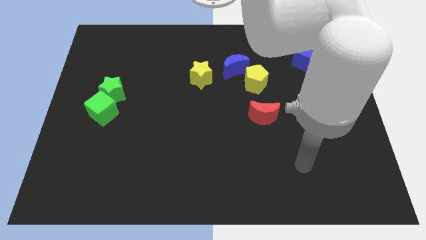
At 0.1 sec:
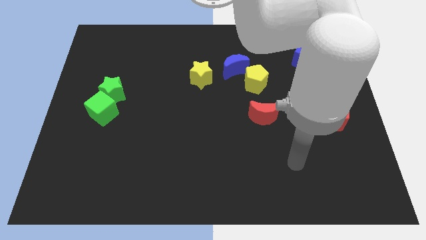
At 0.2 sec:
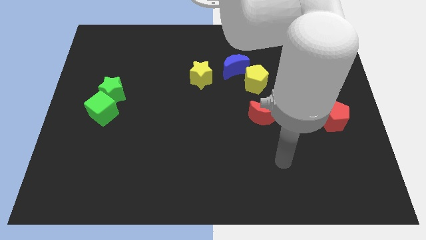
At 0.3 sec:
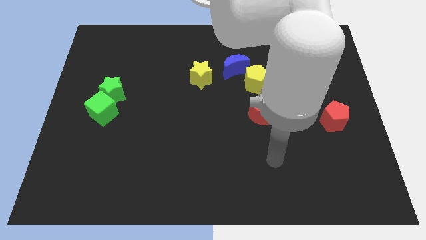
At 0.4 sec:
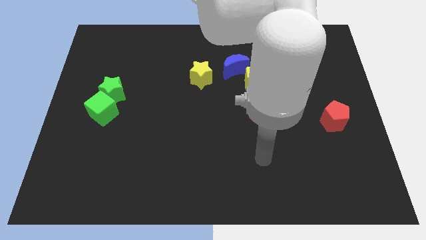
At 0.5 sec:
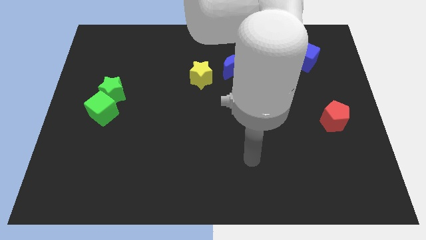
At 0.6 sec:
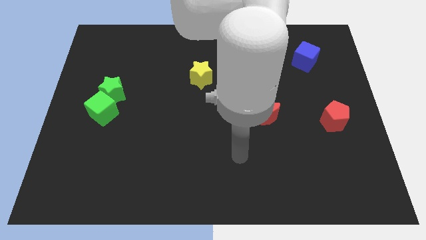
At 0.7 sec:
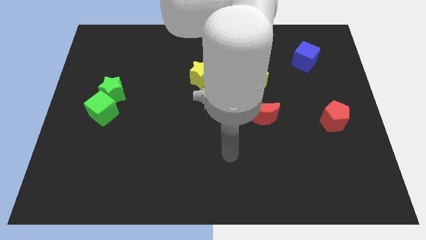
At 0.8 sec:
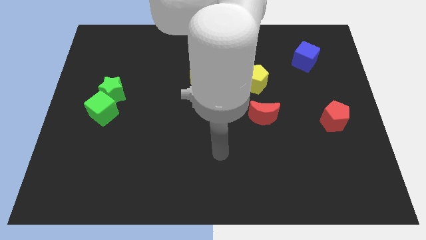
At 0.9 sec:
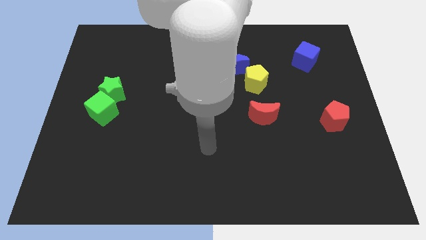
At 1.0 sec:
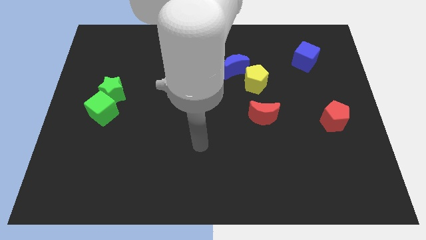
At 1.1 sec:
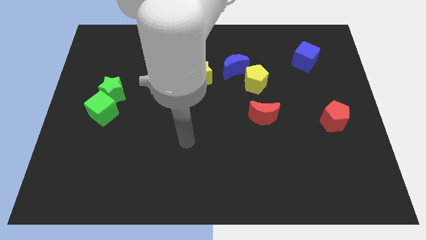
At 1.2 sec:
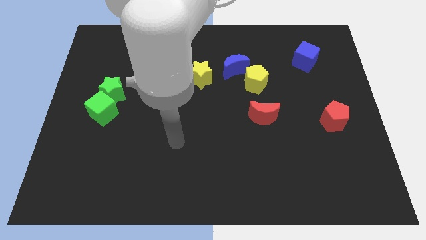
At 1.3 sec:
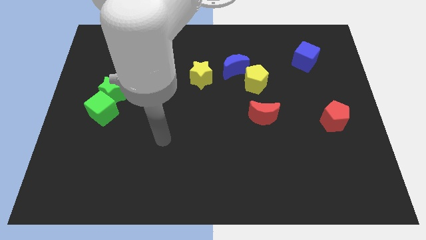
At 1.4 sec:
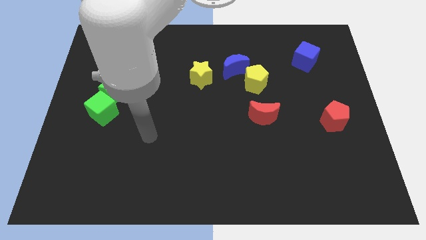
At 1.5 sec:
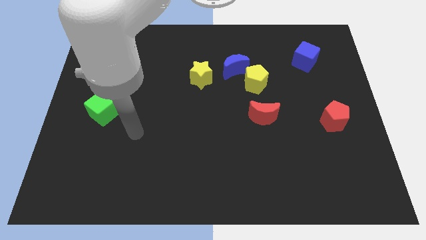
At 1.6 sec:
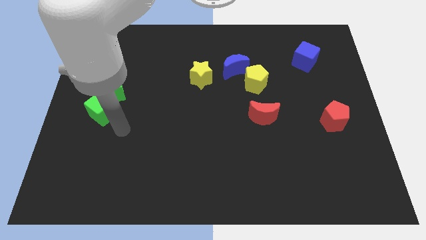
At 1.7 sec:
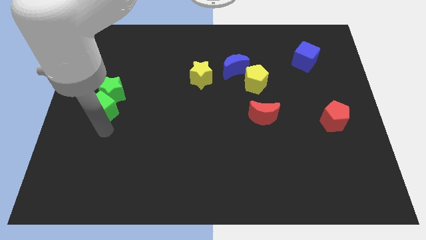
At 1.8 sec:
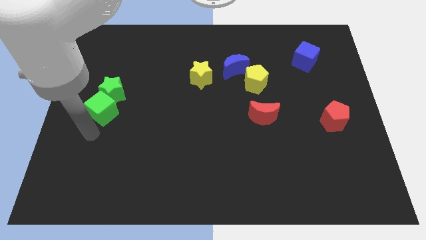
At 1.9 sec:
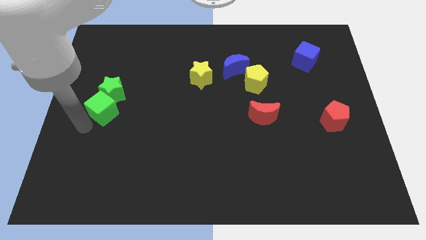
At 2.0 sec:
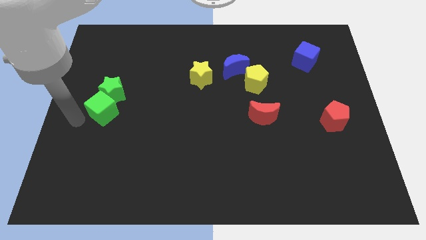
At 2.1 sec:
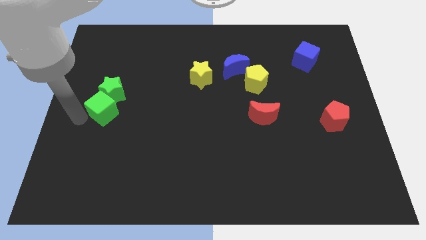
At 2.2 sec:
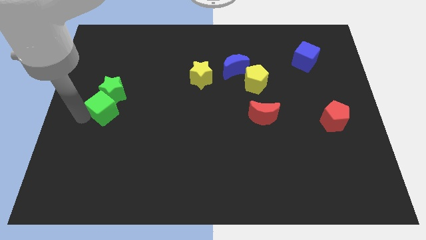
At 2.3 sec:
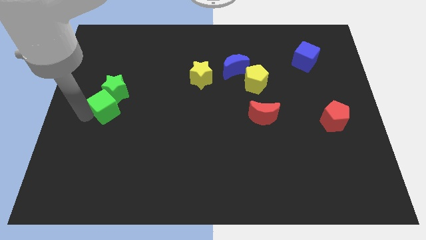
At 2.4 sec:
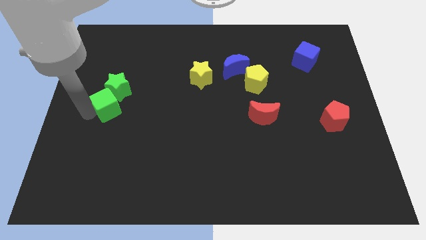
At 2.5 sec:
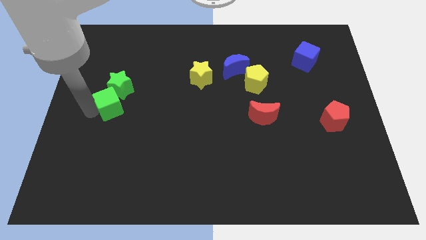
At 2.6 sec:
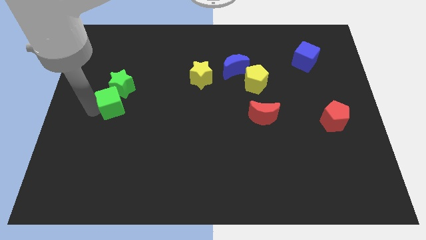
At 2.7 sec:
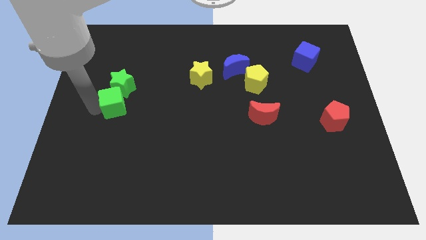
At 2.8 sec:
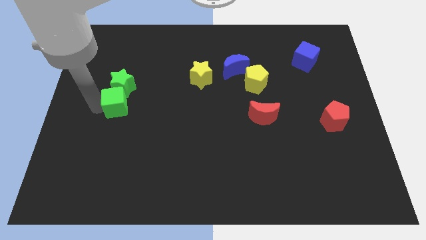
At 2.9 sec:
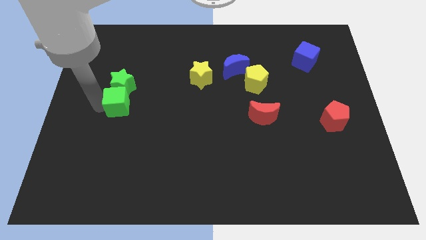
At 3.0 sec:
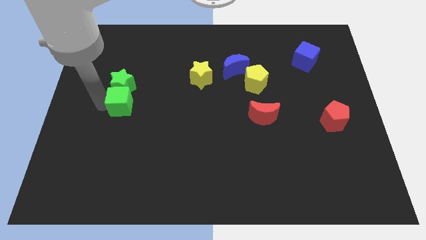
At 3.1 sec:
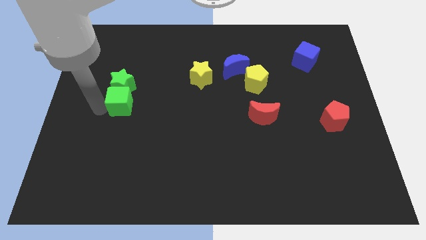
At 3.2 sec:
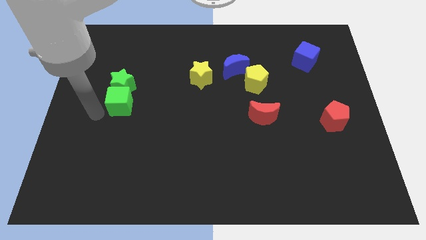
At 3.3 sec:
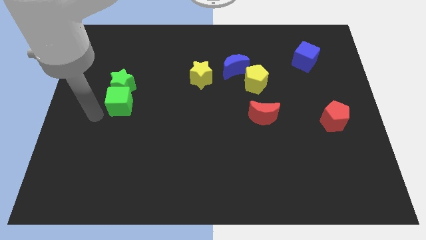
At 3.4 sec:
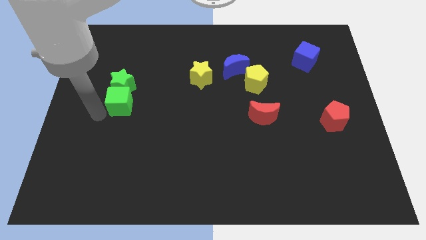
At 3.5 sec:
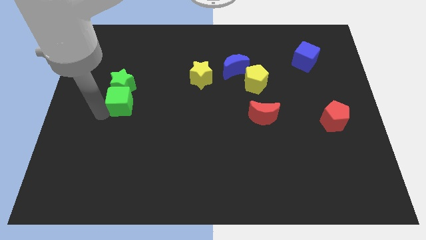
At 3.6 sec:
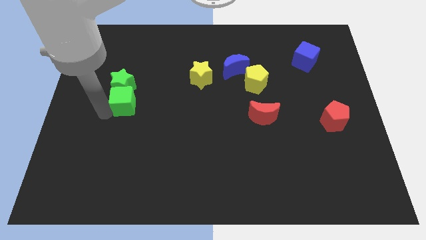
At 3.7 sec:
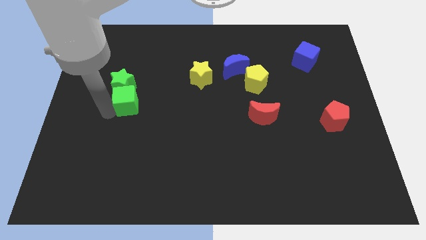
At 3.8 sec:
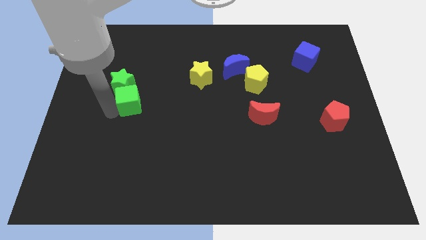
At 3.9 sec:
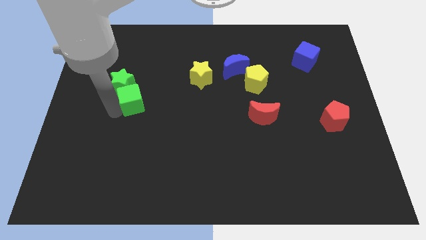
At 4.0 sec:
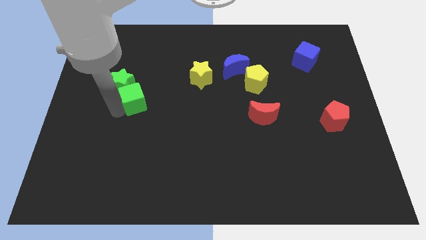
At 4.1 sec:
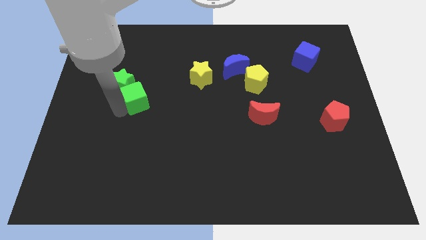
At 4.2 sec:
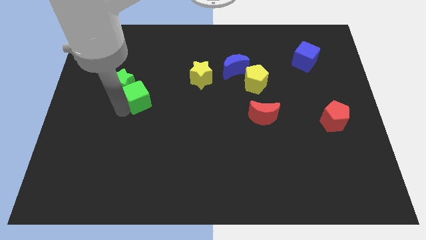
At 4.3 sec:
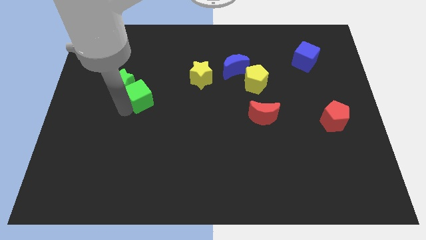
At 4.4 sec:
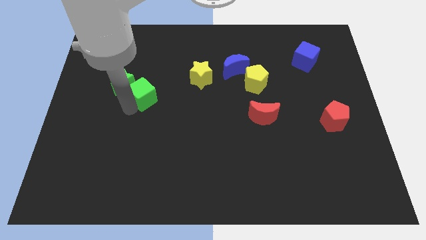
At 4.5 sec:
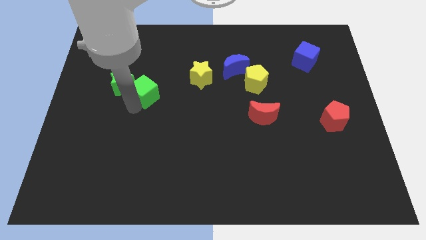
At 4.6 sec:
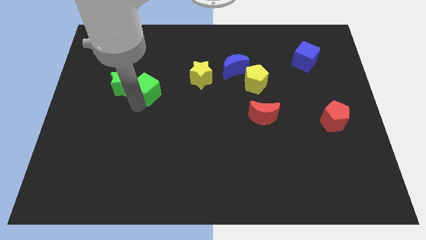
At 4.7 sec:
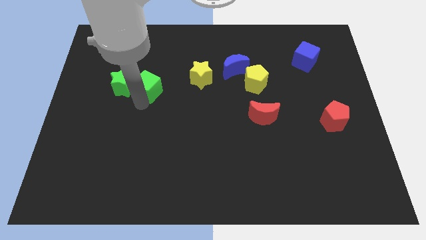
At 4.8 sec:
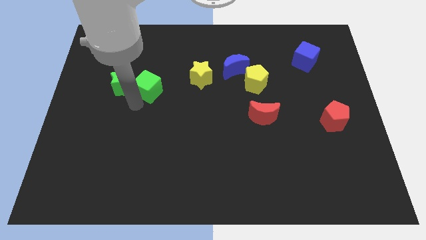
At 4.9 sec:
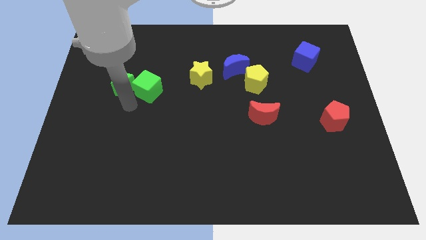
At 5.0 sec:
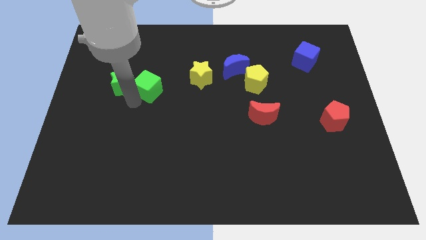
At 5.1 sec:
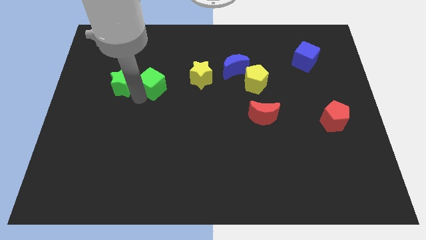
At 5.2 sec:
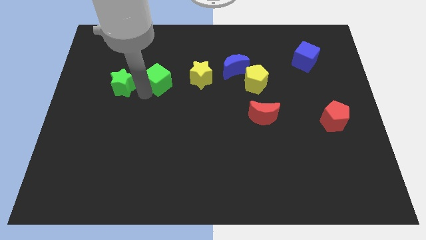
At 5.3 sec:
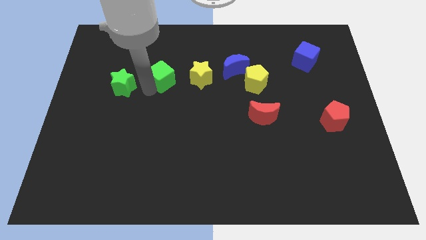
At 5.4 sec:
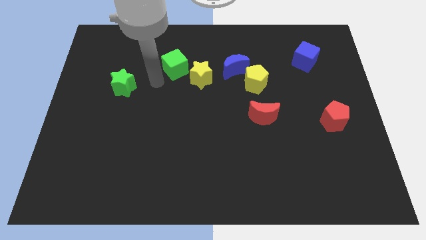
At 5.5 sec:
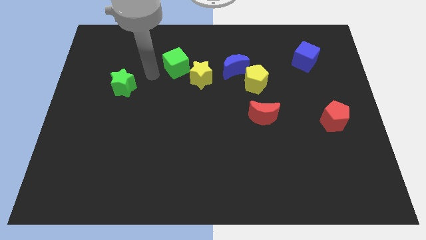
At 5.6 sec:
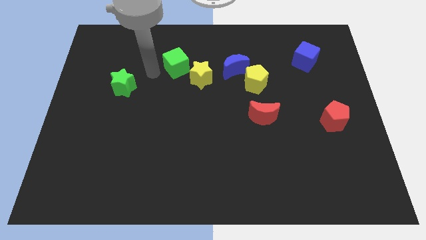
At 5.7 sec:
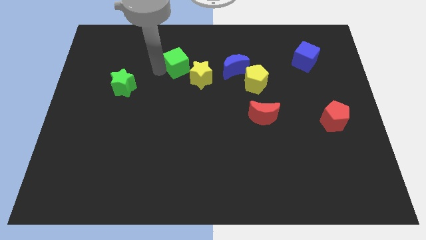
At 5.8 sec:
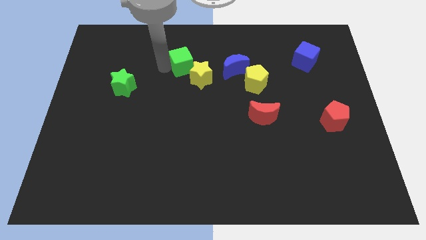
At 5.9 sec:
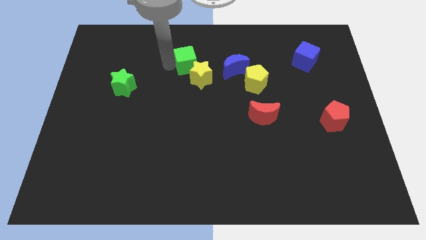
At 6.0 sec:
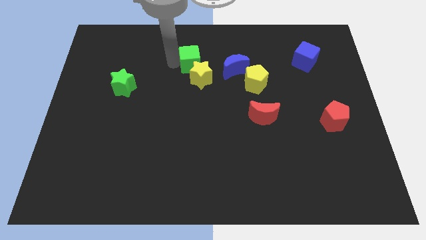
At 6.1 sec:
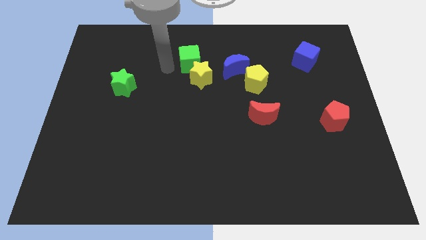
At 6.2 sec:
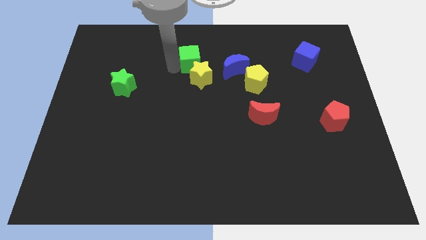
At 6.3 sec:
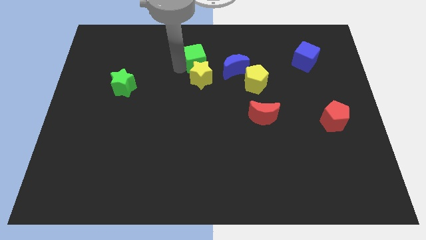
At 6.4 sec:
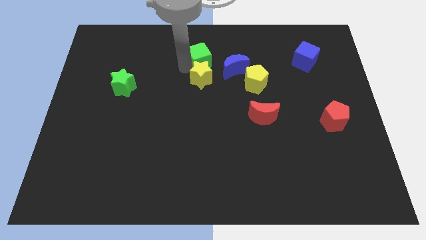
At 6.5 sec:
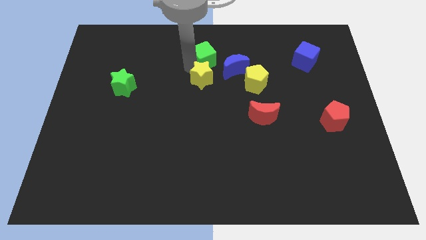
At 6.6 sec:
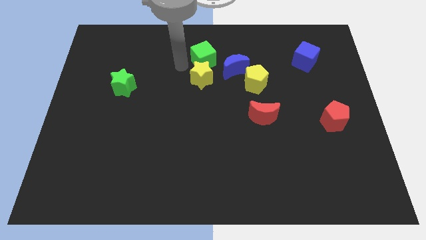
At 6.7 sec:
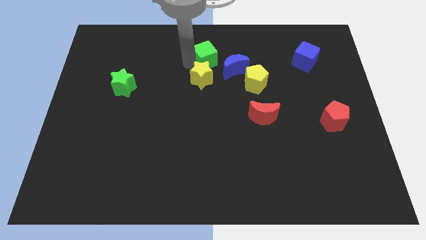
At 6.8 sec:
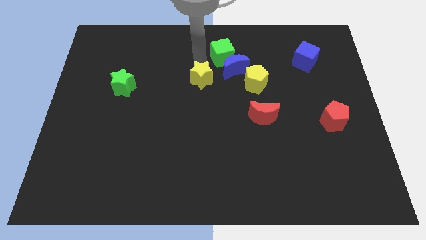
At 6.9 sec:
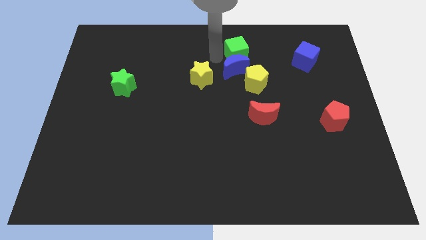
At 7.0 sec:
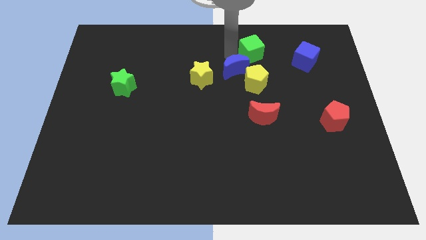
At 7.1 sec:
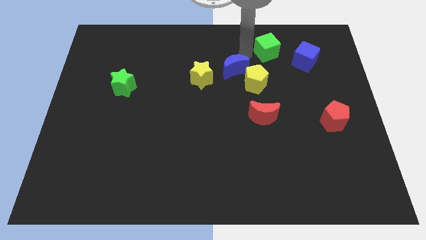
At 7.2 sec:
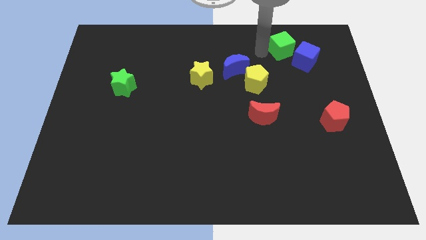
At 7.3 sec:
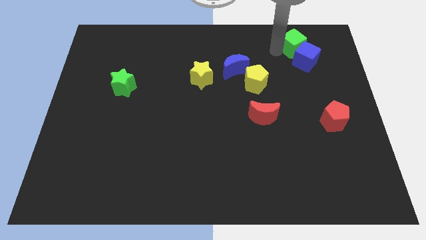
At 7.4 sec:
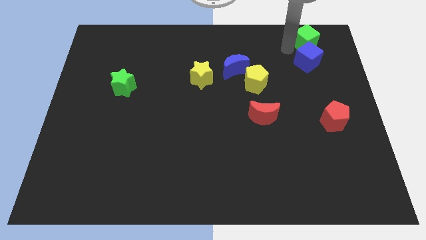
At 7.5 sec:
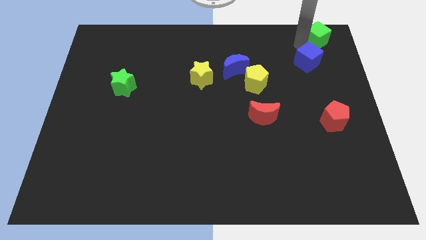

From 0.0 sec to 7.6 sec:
slide the green cube to the upper right corner

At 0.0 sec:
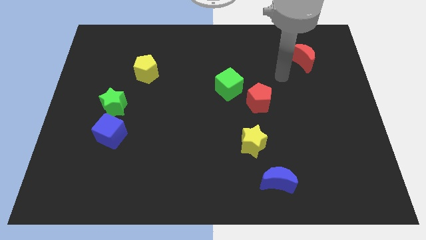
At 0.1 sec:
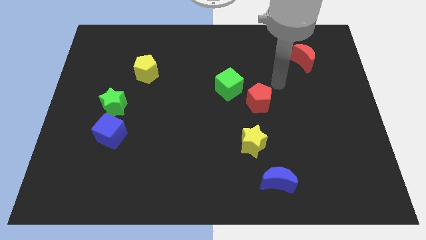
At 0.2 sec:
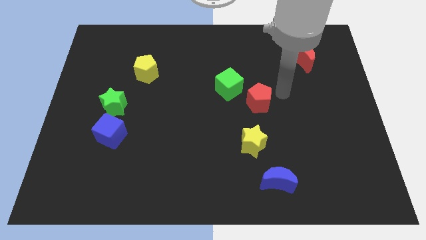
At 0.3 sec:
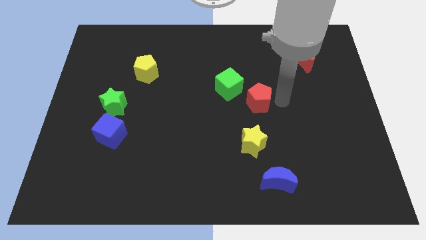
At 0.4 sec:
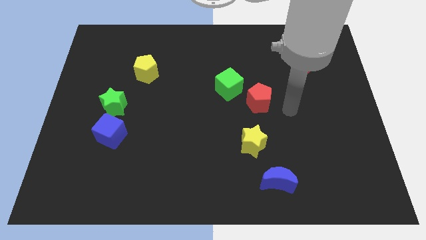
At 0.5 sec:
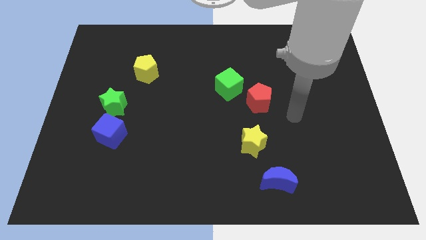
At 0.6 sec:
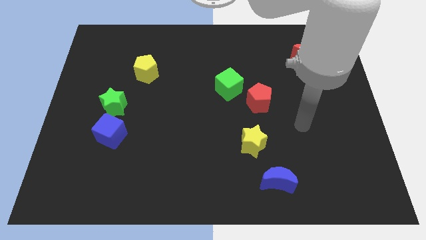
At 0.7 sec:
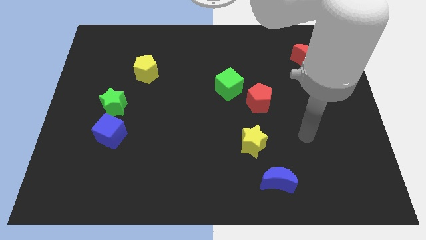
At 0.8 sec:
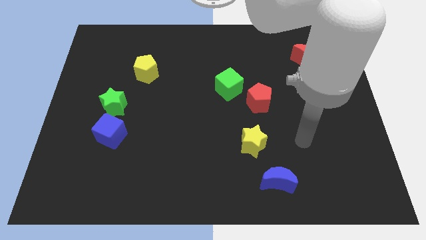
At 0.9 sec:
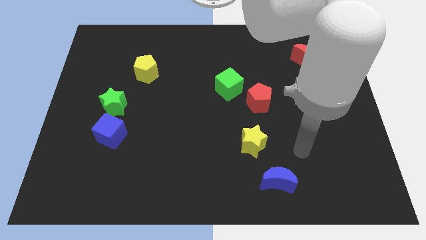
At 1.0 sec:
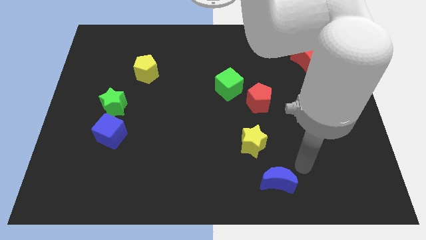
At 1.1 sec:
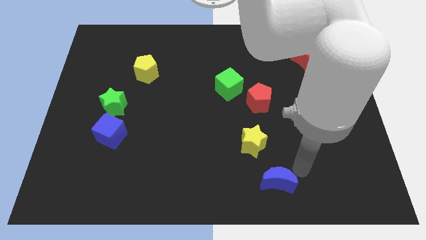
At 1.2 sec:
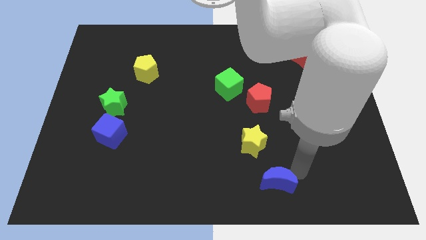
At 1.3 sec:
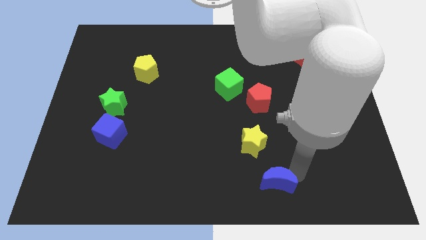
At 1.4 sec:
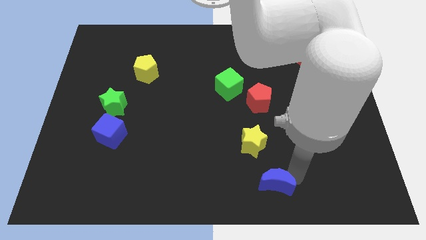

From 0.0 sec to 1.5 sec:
move the blue moon to the bottom
